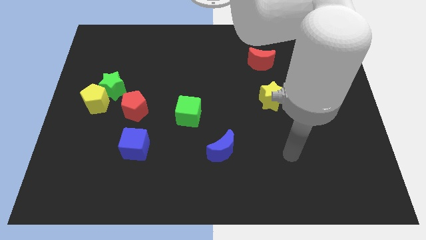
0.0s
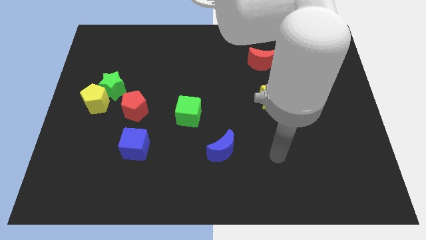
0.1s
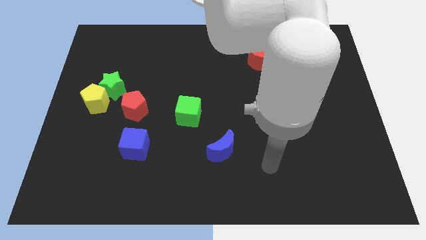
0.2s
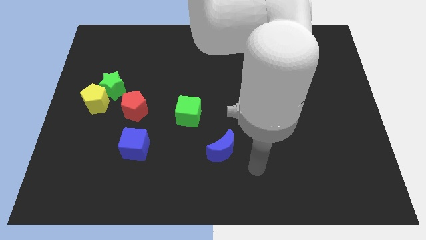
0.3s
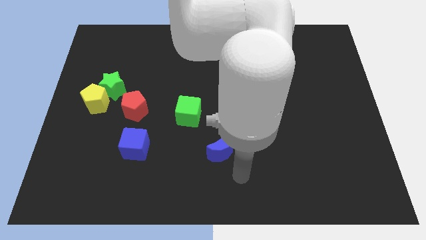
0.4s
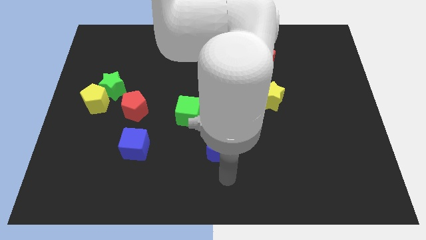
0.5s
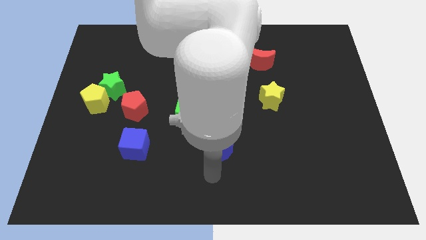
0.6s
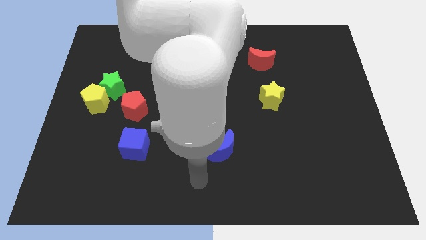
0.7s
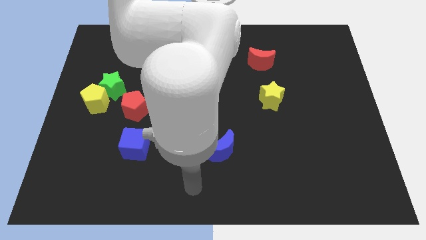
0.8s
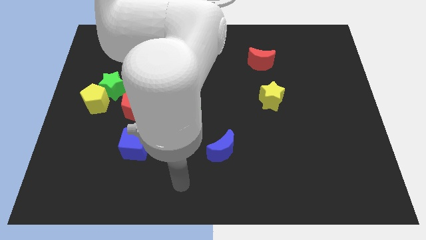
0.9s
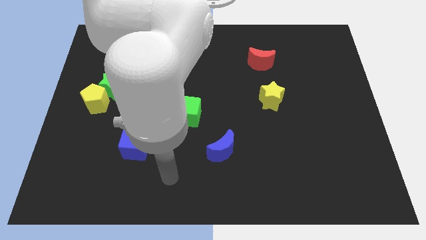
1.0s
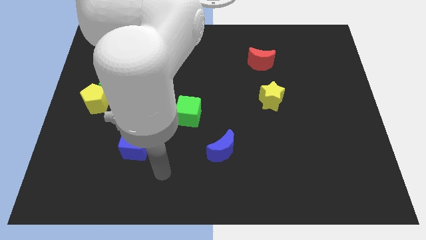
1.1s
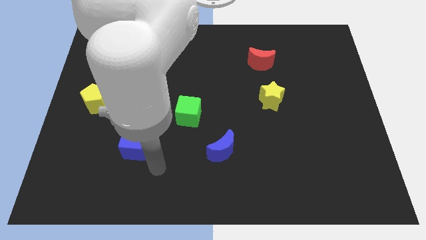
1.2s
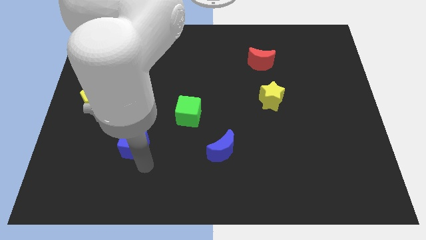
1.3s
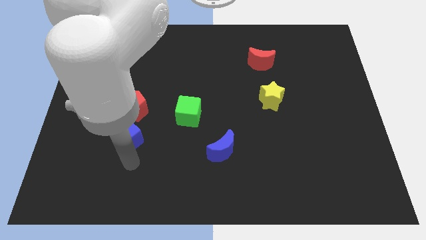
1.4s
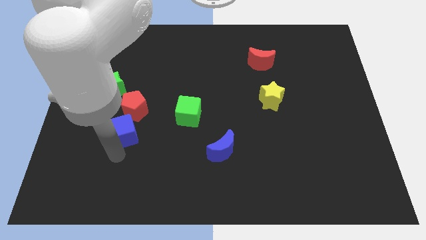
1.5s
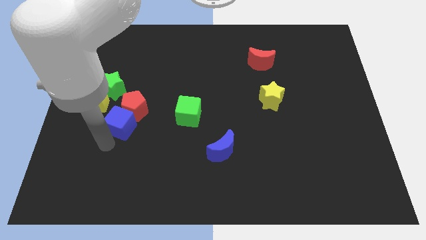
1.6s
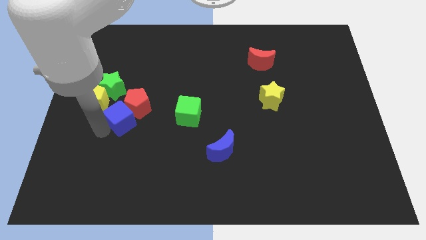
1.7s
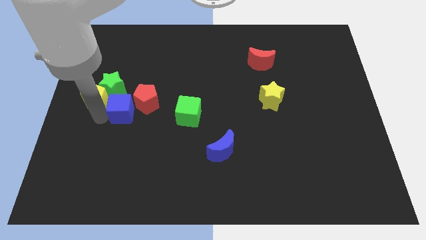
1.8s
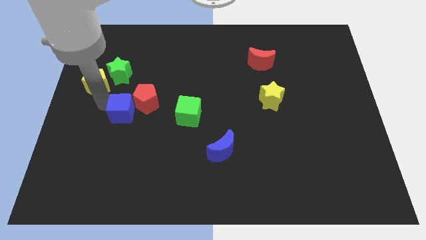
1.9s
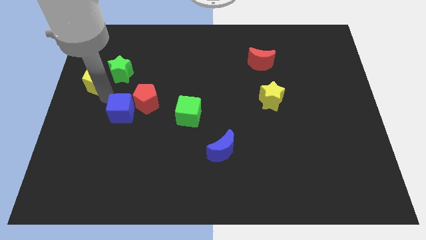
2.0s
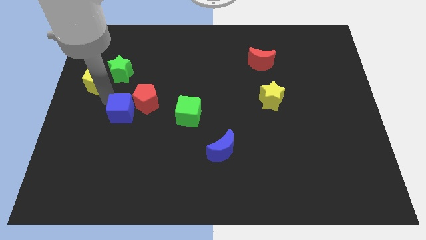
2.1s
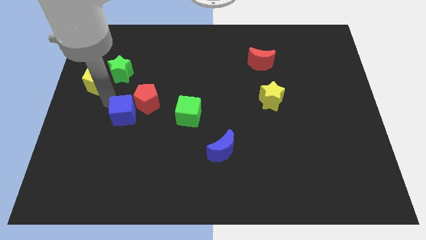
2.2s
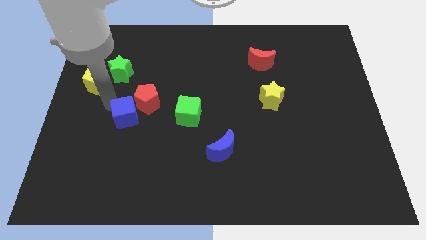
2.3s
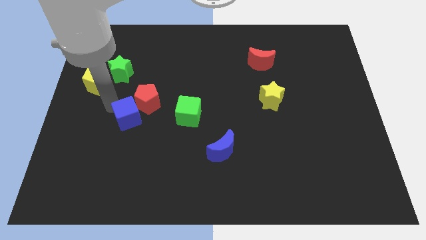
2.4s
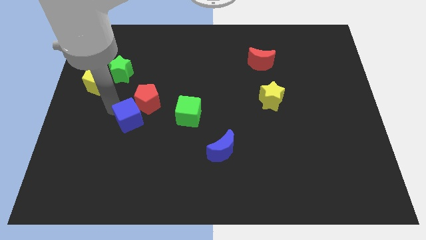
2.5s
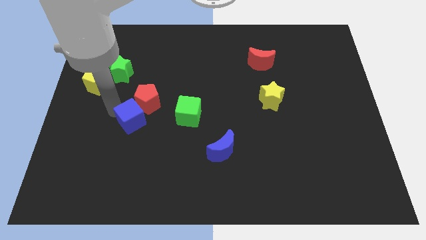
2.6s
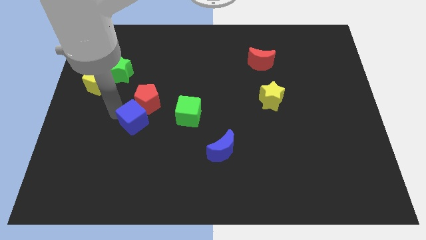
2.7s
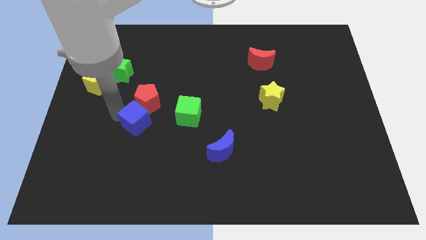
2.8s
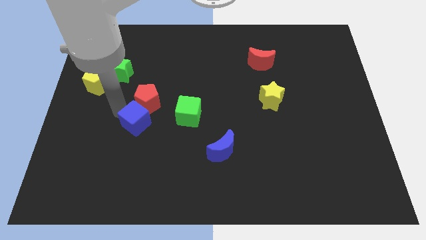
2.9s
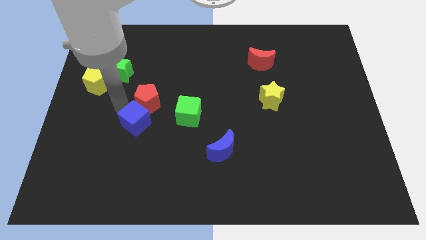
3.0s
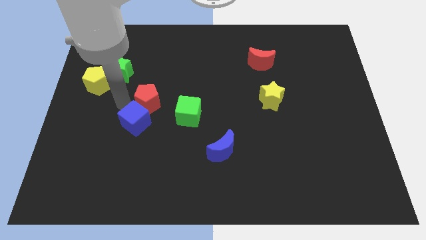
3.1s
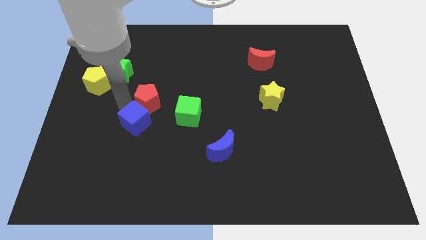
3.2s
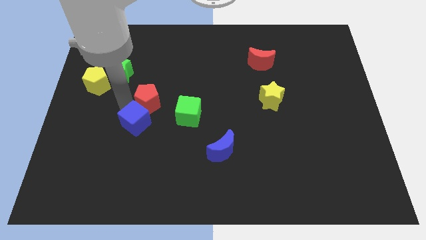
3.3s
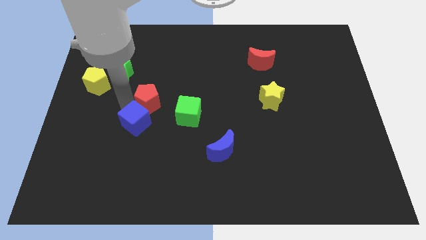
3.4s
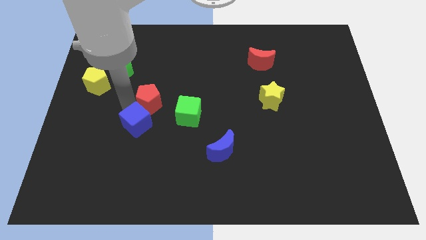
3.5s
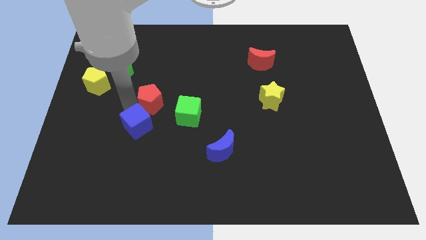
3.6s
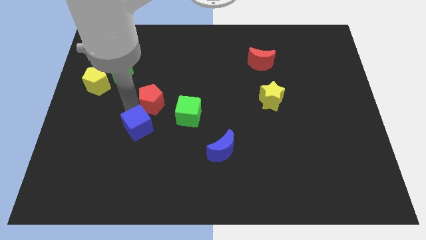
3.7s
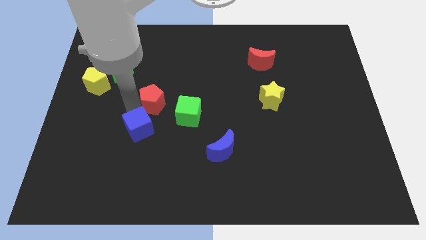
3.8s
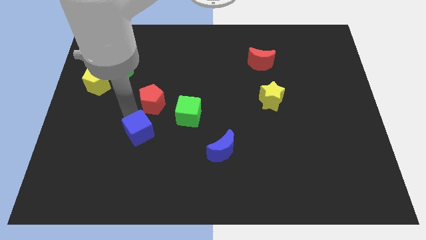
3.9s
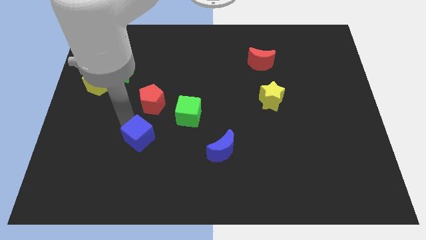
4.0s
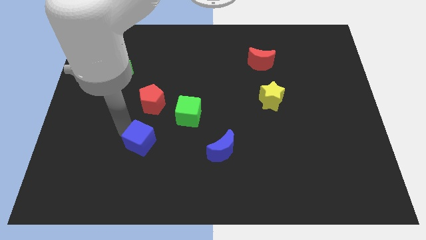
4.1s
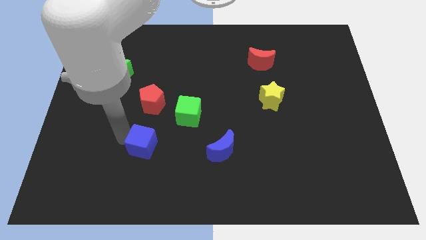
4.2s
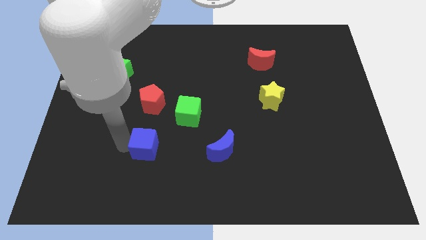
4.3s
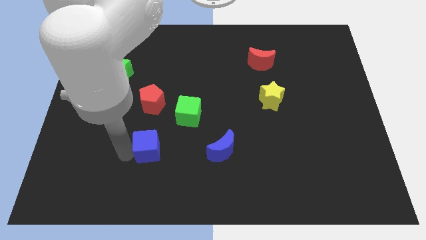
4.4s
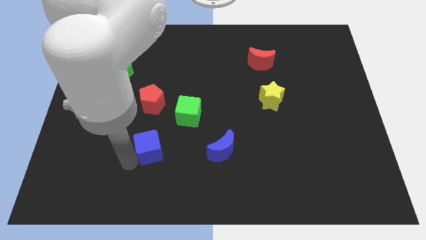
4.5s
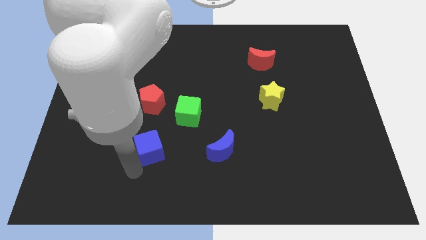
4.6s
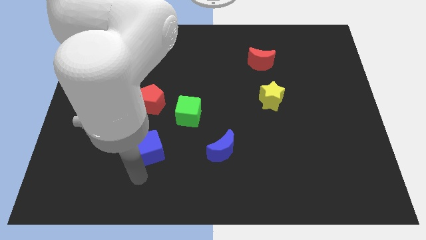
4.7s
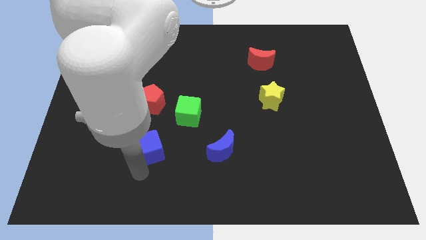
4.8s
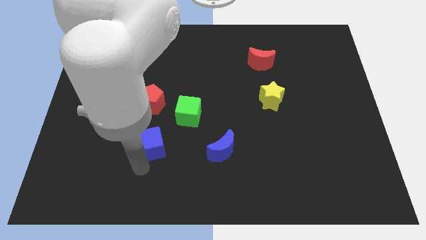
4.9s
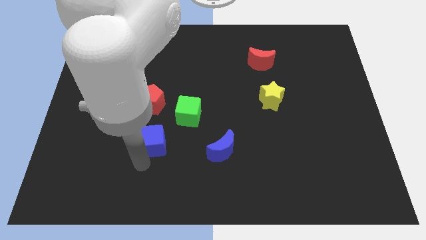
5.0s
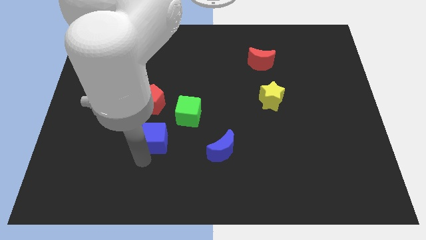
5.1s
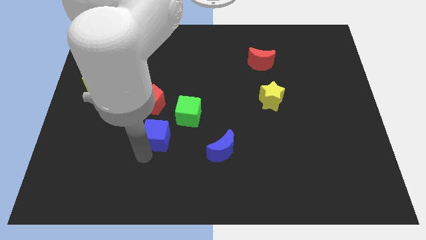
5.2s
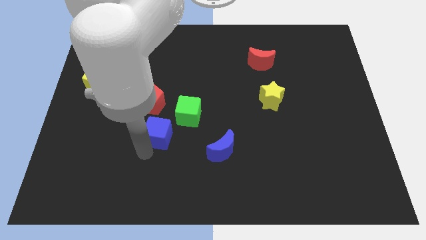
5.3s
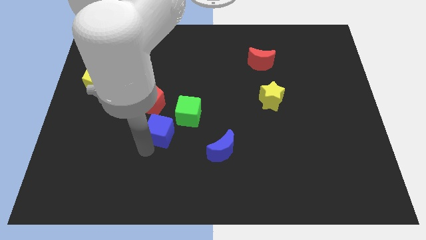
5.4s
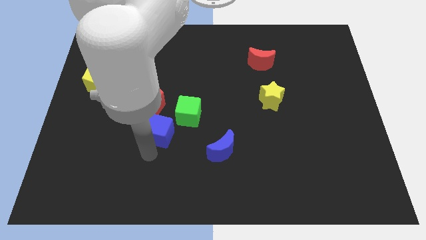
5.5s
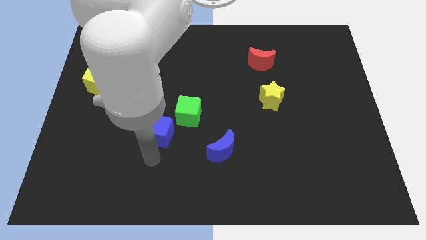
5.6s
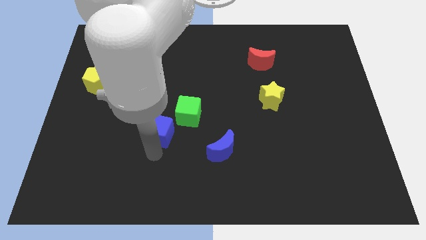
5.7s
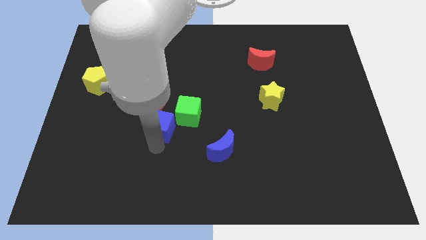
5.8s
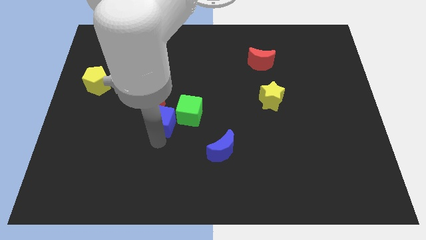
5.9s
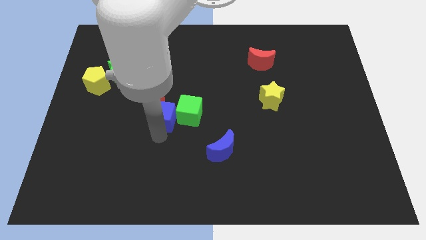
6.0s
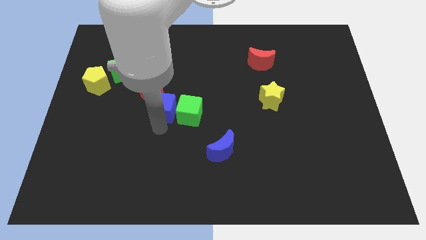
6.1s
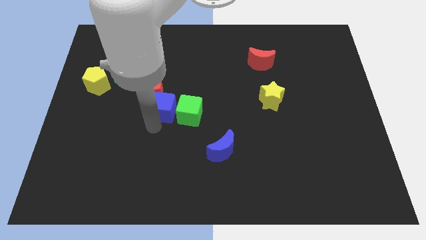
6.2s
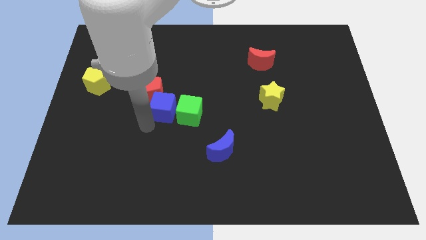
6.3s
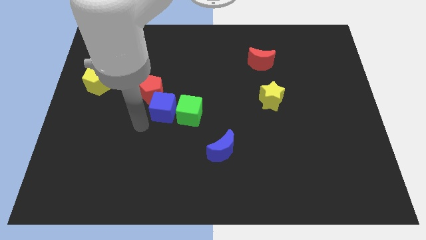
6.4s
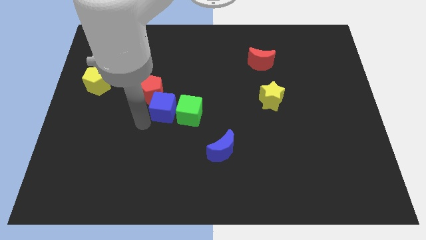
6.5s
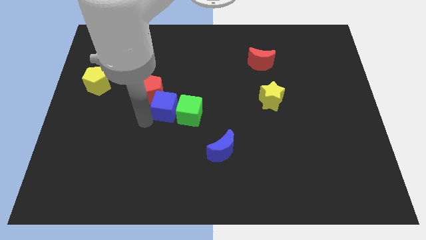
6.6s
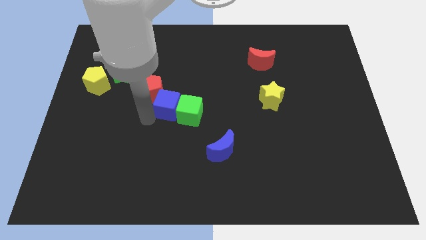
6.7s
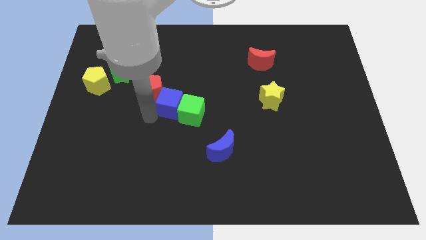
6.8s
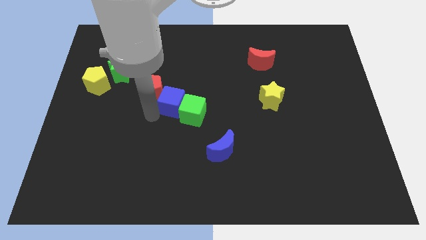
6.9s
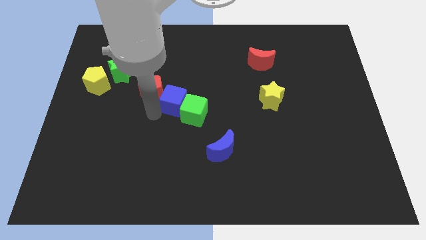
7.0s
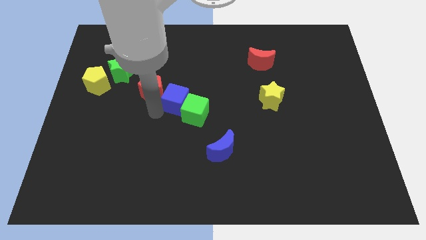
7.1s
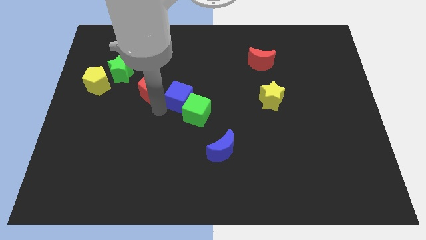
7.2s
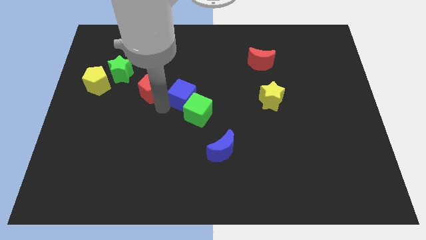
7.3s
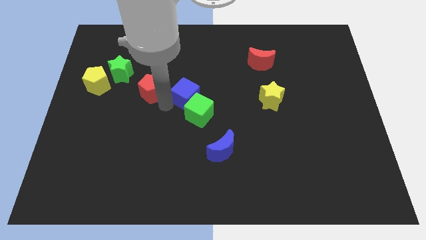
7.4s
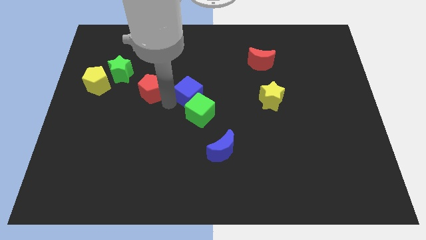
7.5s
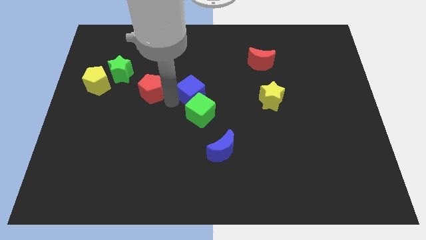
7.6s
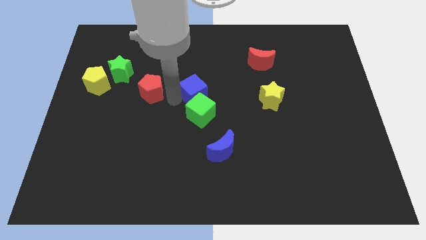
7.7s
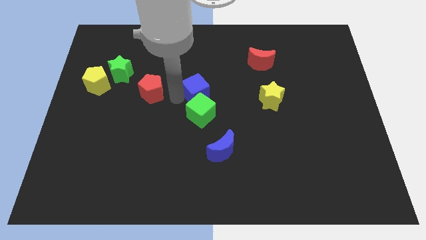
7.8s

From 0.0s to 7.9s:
push the blue cube upwards and then right
